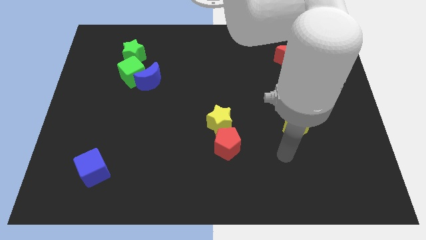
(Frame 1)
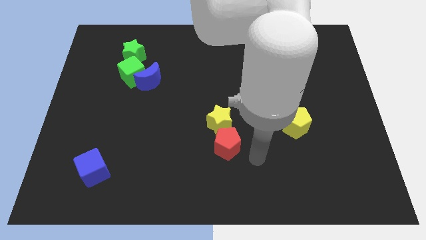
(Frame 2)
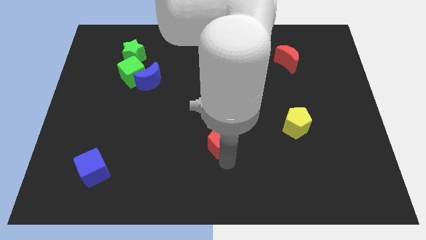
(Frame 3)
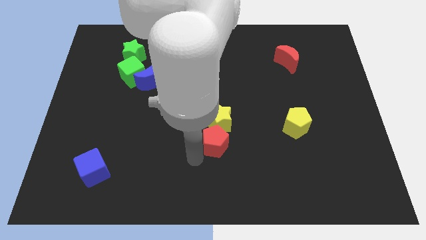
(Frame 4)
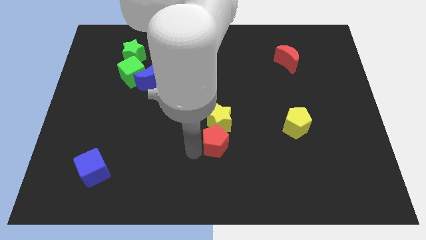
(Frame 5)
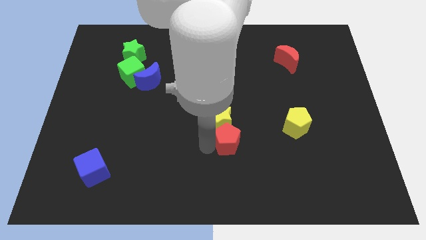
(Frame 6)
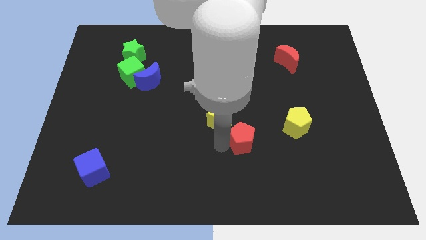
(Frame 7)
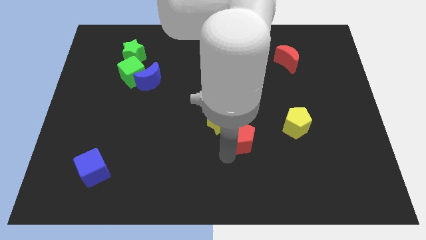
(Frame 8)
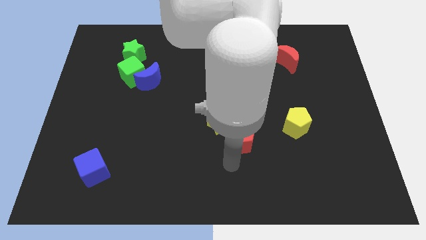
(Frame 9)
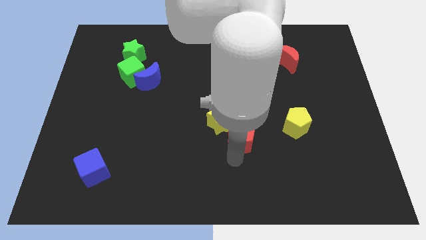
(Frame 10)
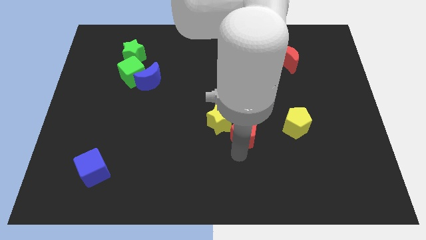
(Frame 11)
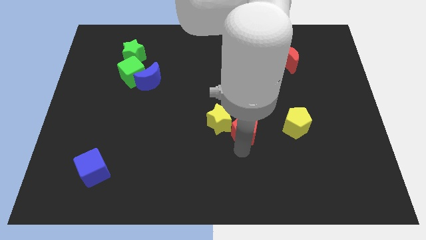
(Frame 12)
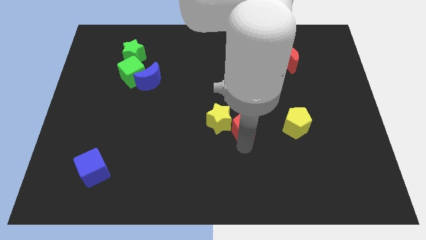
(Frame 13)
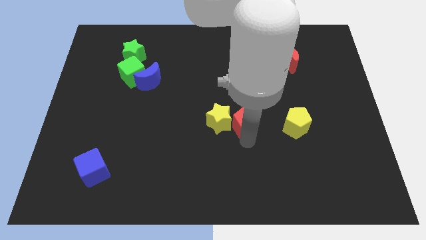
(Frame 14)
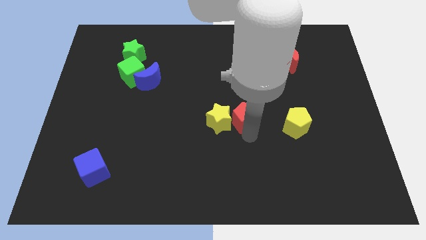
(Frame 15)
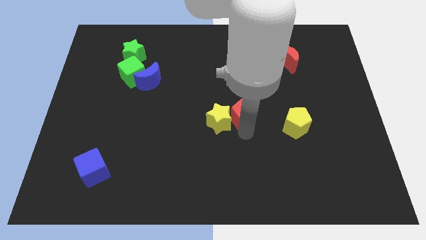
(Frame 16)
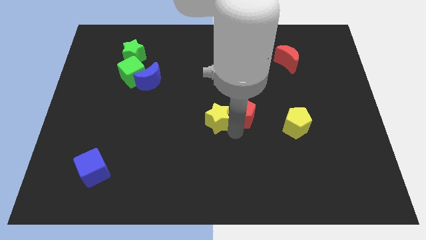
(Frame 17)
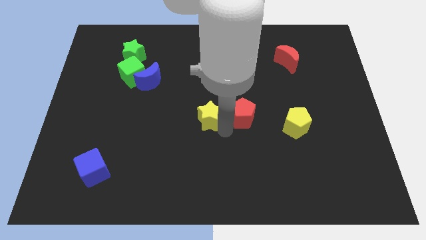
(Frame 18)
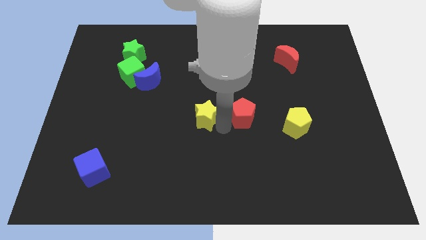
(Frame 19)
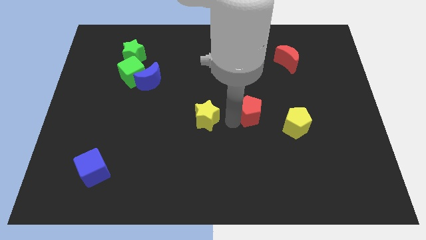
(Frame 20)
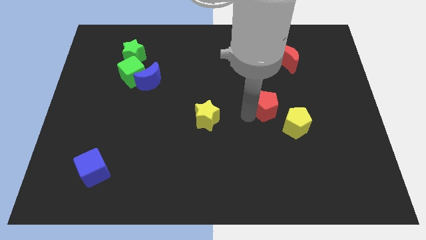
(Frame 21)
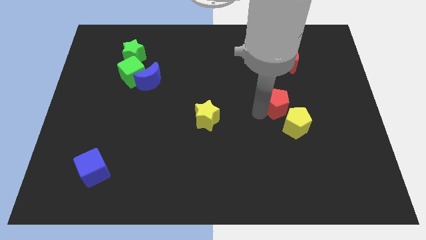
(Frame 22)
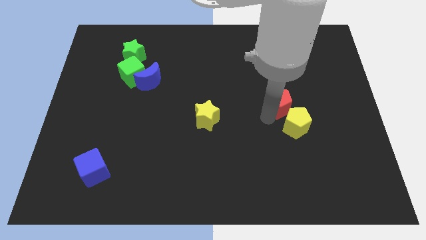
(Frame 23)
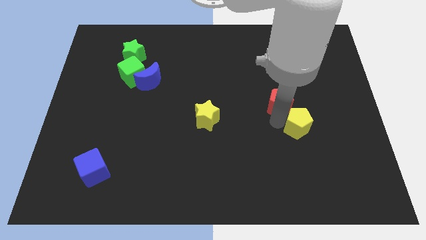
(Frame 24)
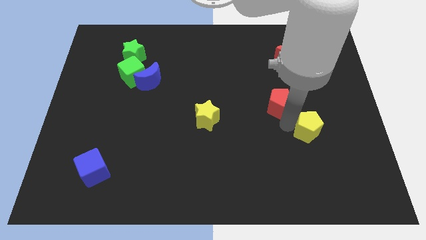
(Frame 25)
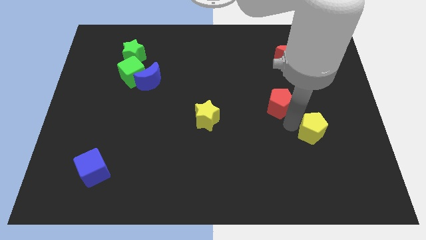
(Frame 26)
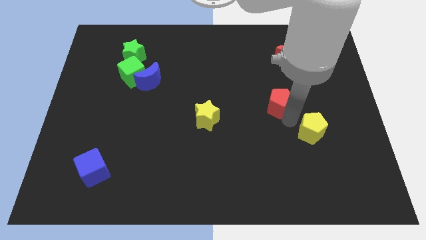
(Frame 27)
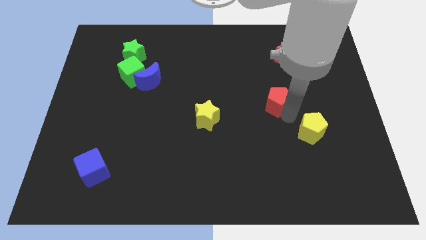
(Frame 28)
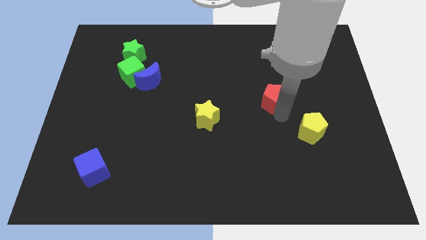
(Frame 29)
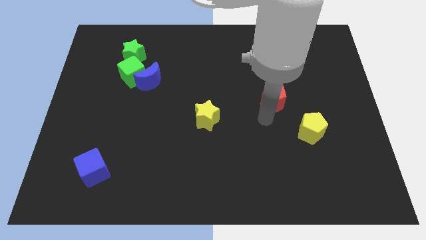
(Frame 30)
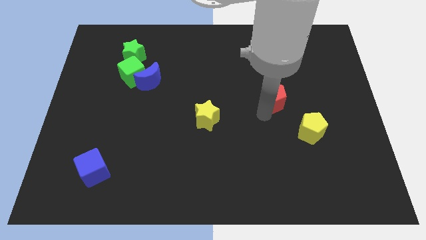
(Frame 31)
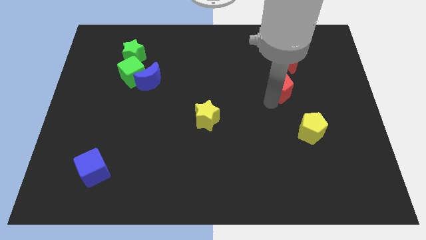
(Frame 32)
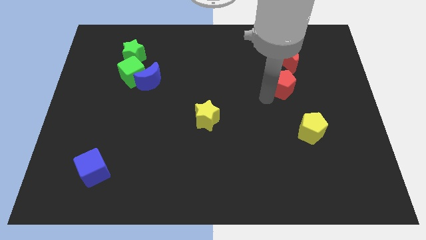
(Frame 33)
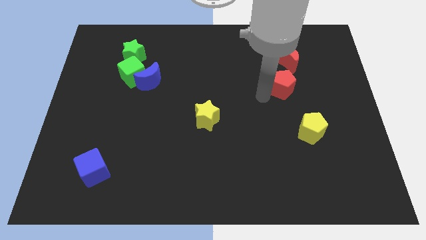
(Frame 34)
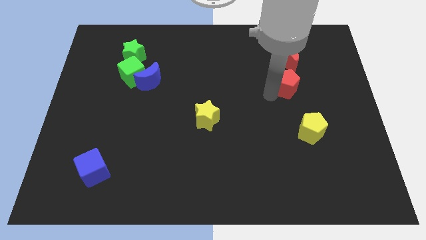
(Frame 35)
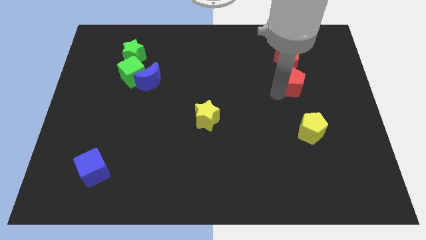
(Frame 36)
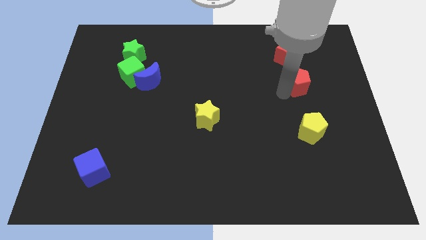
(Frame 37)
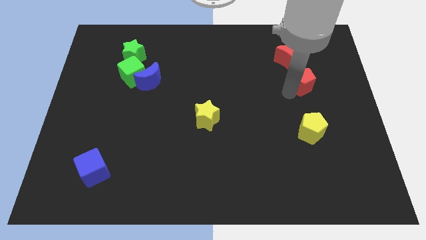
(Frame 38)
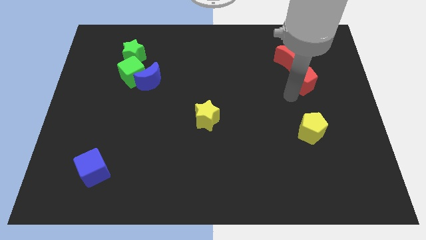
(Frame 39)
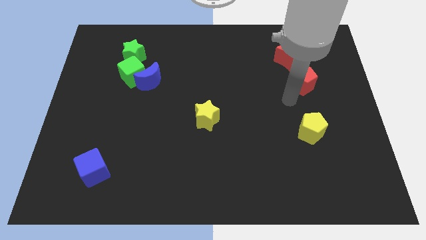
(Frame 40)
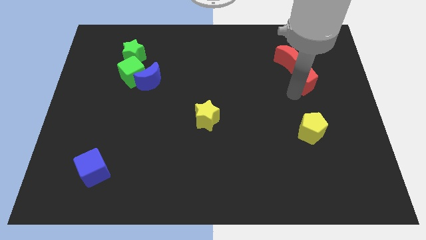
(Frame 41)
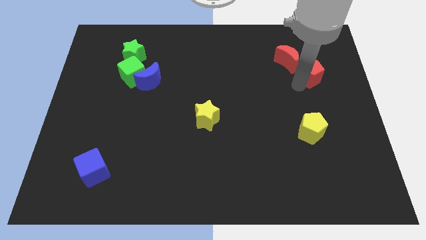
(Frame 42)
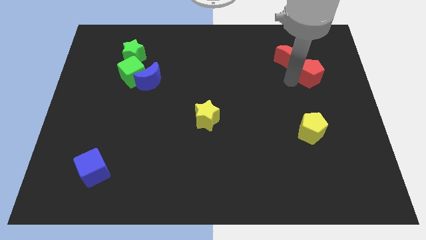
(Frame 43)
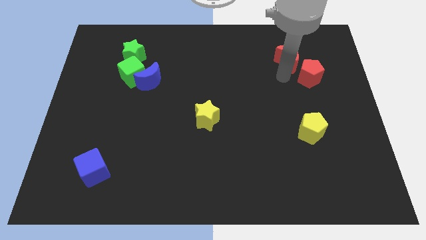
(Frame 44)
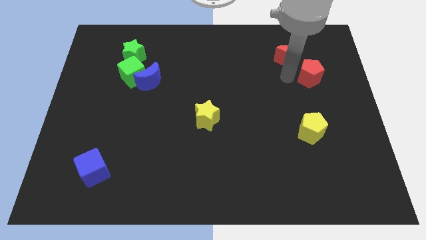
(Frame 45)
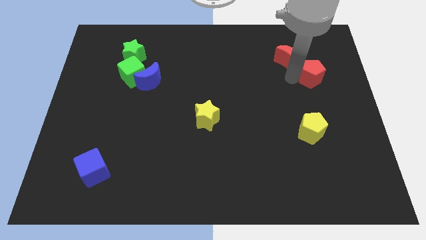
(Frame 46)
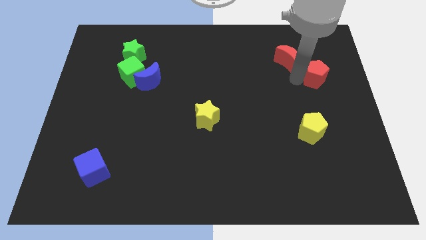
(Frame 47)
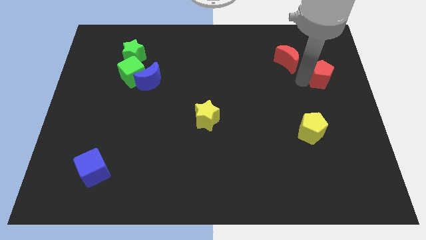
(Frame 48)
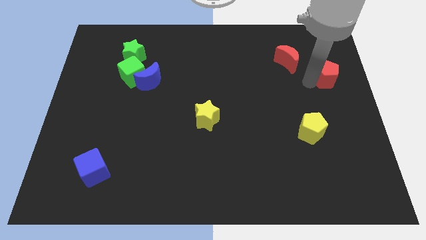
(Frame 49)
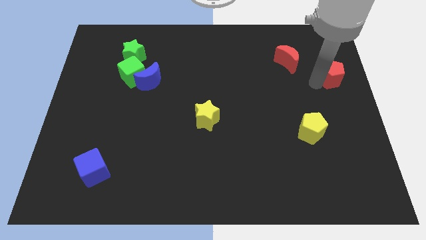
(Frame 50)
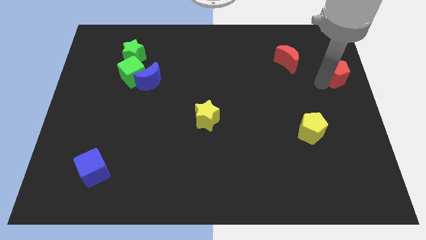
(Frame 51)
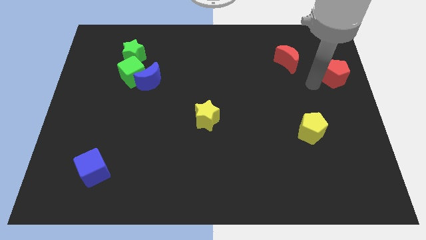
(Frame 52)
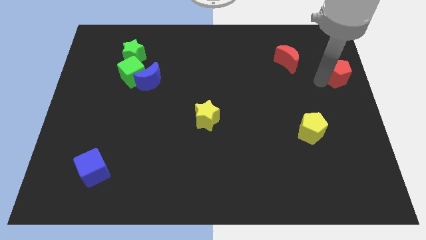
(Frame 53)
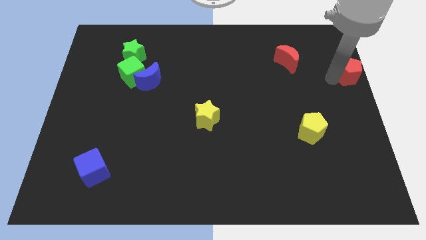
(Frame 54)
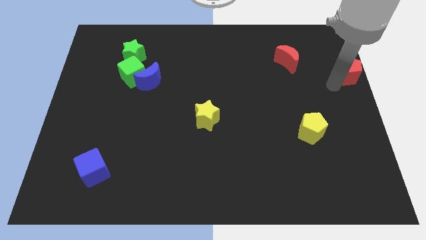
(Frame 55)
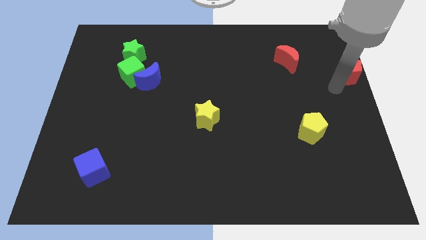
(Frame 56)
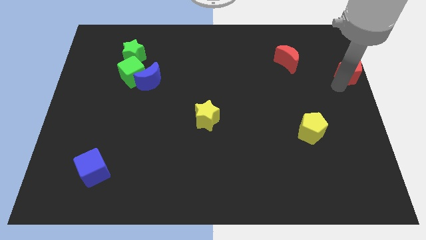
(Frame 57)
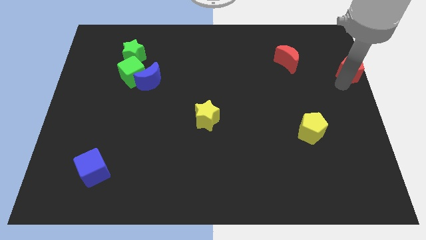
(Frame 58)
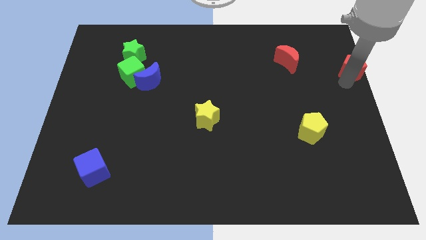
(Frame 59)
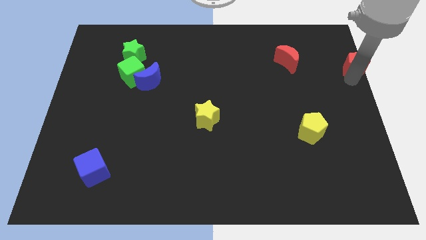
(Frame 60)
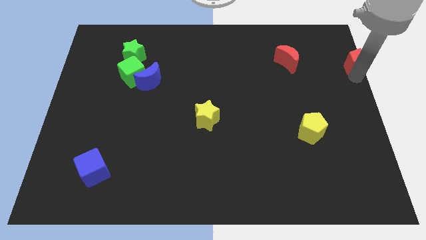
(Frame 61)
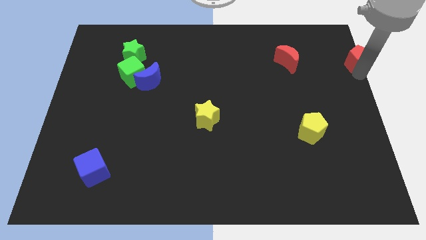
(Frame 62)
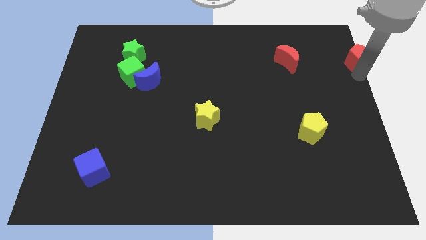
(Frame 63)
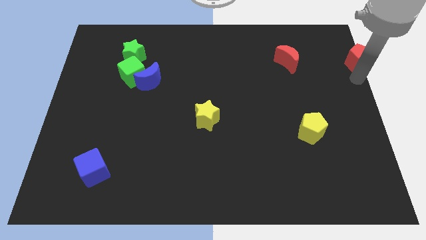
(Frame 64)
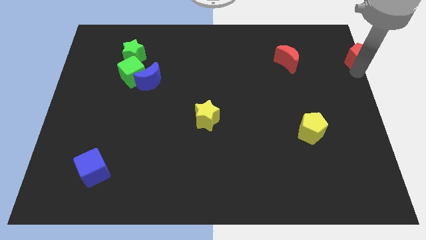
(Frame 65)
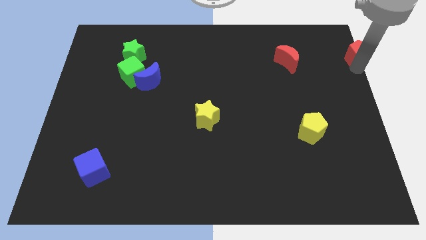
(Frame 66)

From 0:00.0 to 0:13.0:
move the red pentagon to the upper right corner
